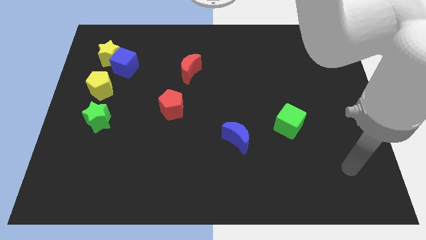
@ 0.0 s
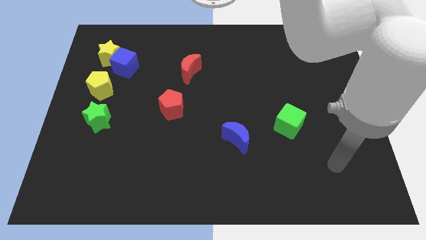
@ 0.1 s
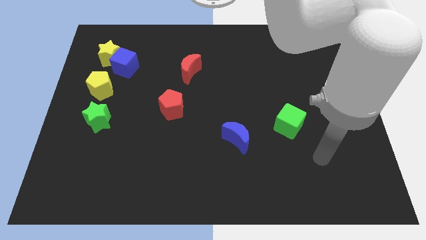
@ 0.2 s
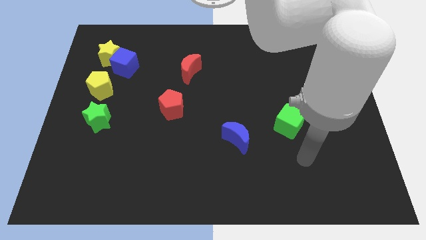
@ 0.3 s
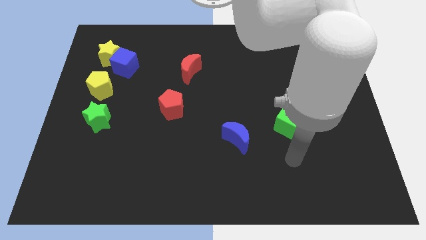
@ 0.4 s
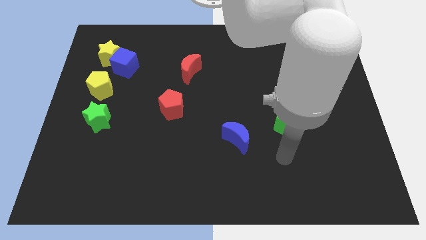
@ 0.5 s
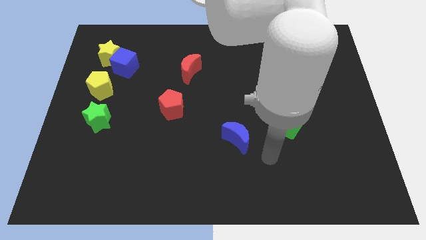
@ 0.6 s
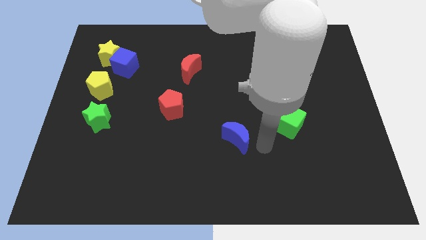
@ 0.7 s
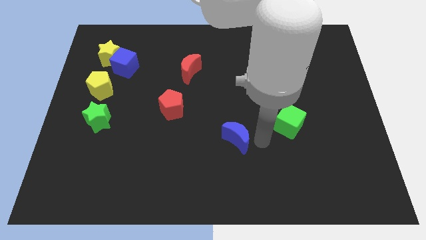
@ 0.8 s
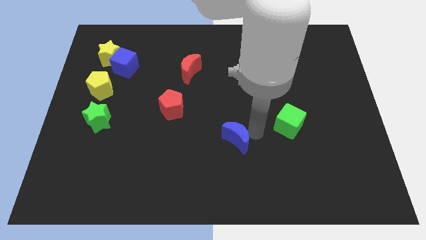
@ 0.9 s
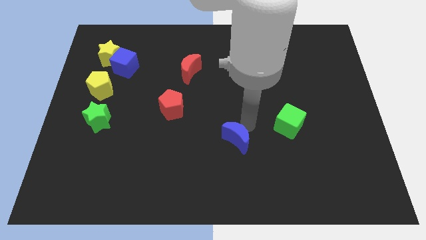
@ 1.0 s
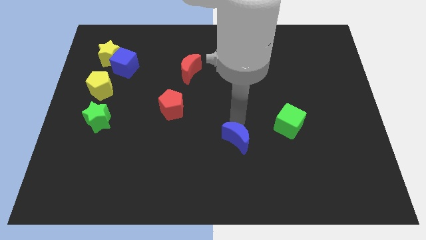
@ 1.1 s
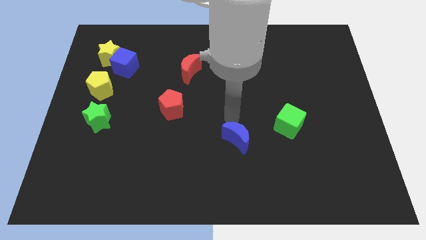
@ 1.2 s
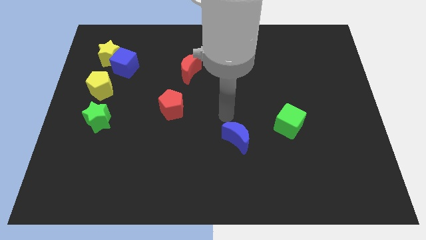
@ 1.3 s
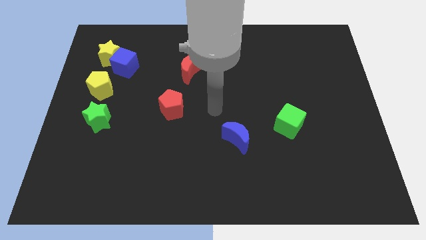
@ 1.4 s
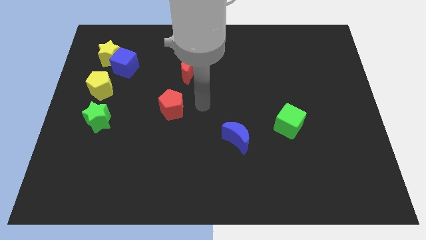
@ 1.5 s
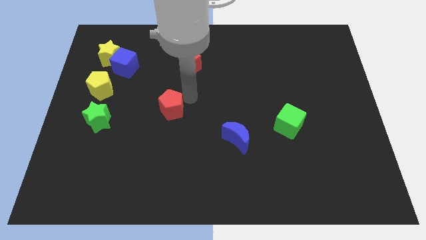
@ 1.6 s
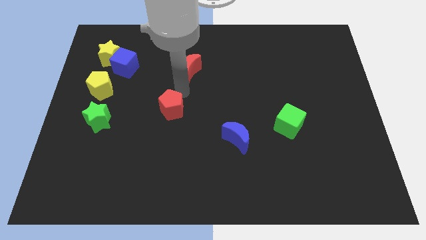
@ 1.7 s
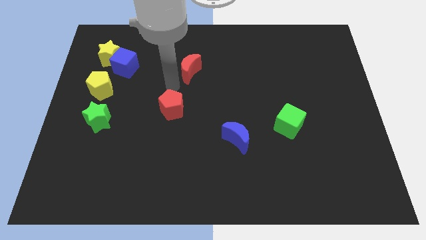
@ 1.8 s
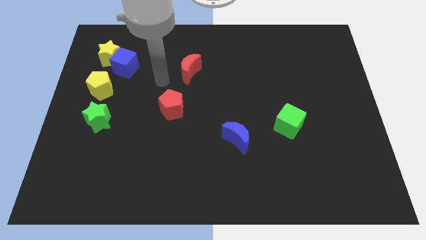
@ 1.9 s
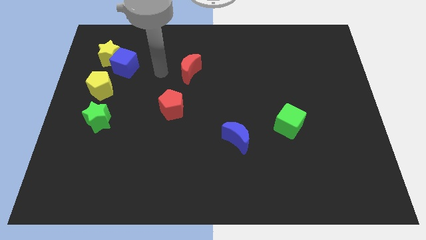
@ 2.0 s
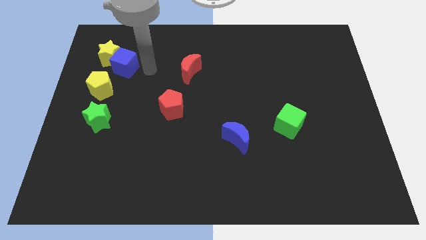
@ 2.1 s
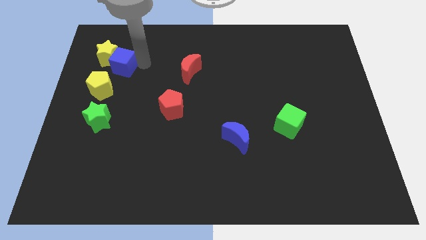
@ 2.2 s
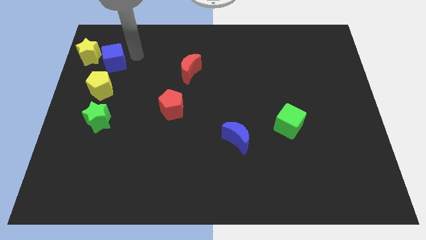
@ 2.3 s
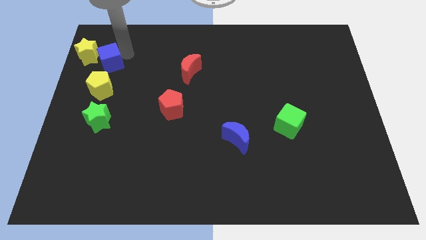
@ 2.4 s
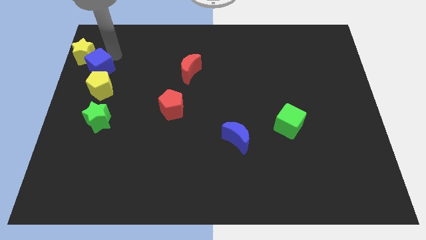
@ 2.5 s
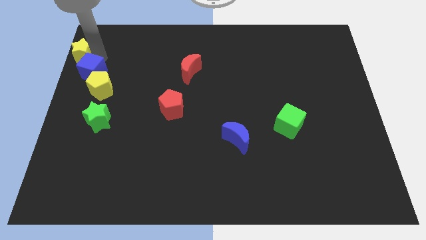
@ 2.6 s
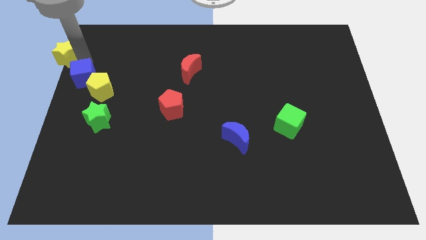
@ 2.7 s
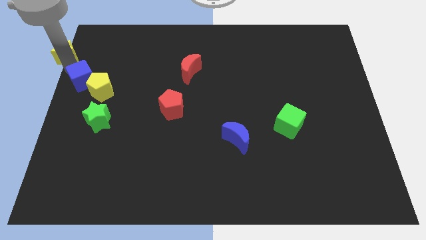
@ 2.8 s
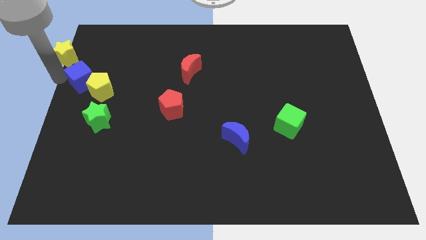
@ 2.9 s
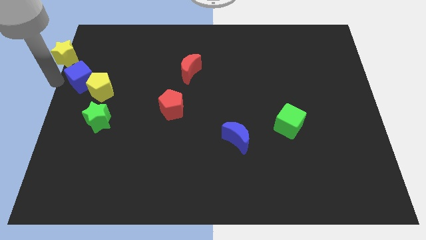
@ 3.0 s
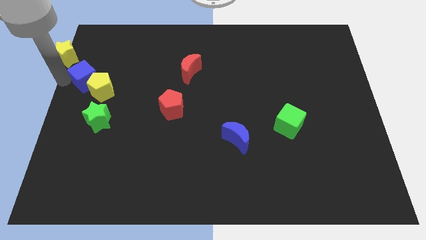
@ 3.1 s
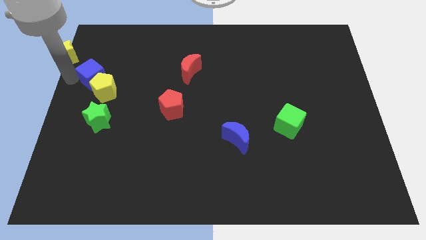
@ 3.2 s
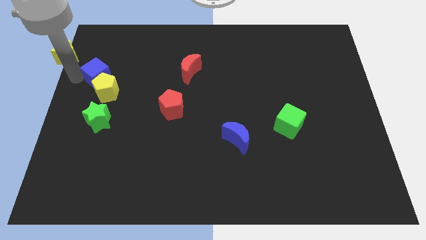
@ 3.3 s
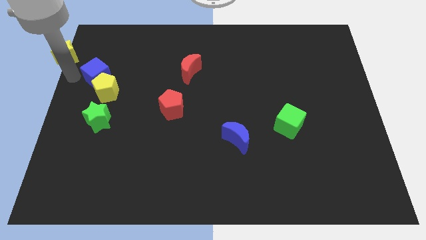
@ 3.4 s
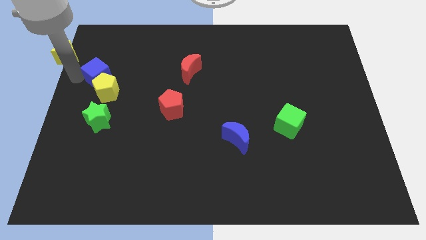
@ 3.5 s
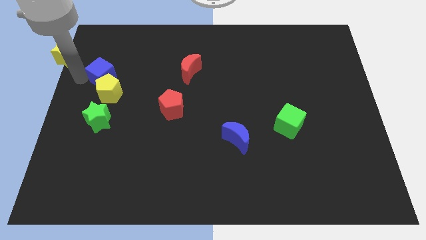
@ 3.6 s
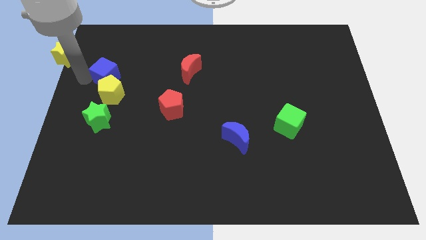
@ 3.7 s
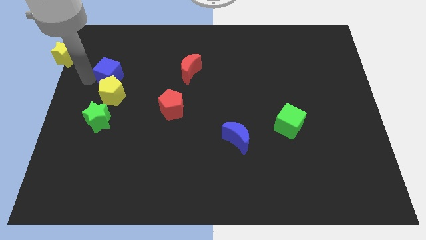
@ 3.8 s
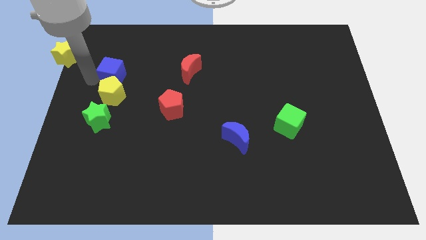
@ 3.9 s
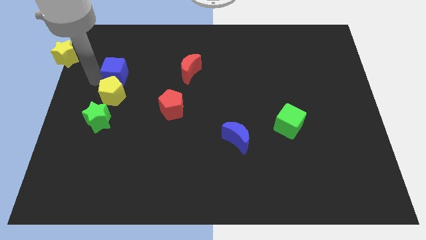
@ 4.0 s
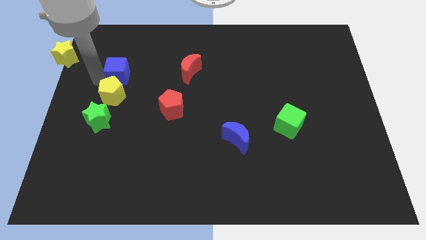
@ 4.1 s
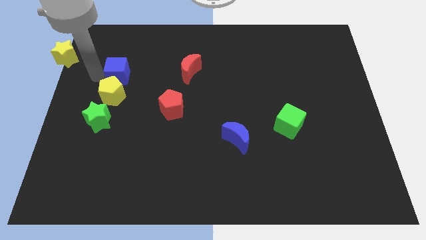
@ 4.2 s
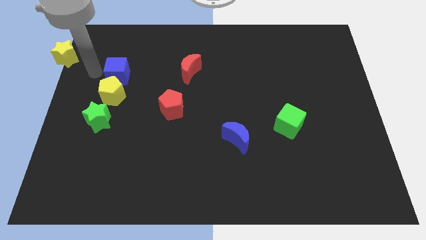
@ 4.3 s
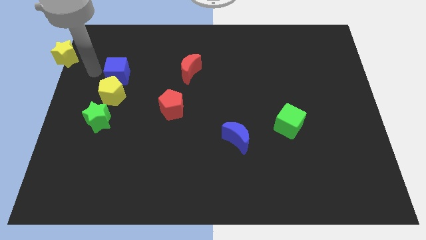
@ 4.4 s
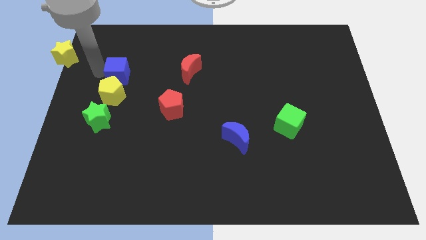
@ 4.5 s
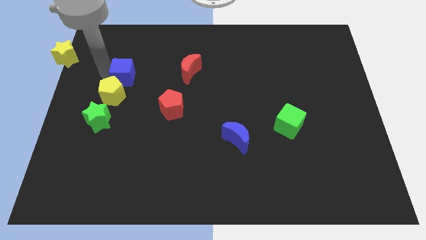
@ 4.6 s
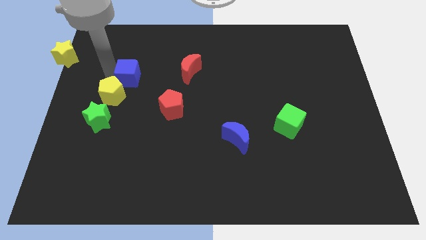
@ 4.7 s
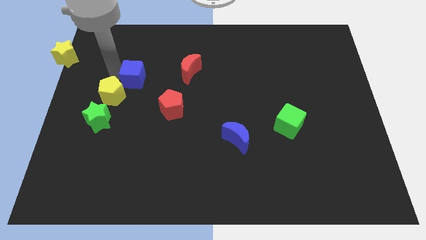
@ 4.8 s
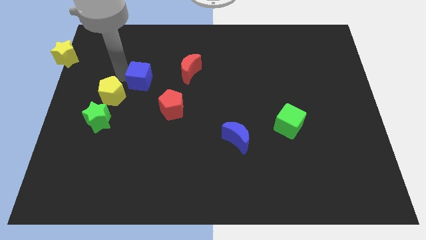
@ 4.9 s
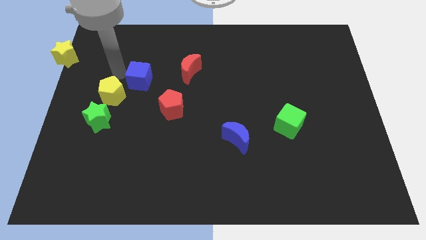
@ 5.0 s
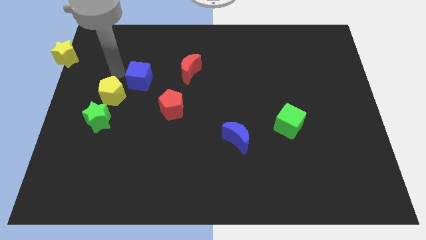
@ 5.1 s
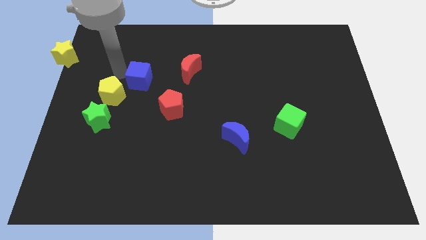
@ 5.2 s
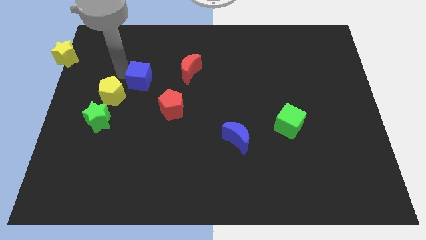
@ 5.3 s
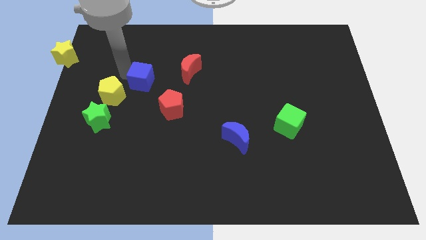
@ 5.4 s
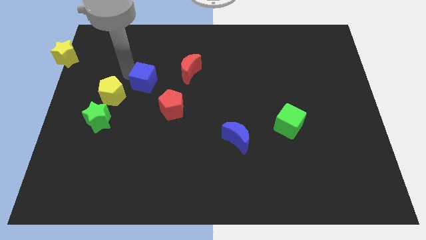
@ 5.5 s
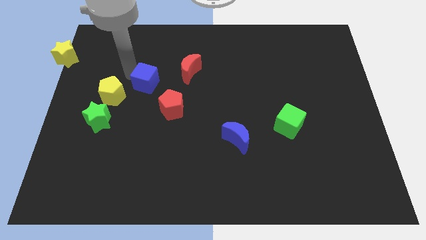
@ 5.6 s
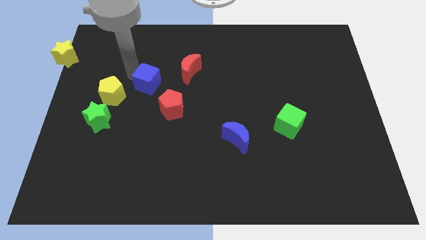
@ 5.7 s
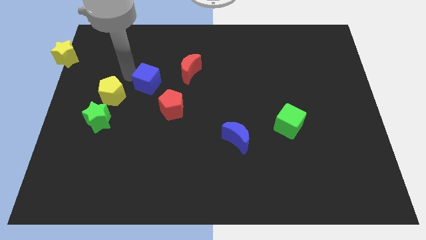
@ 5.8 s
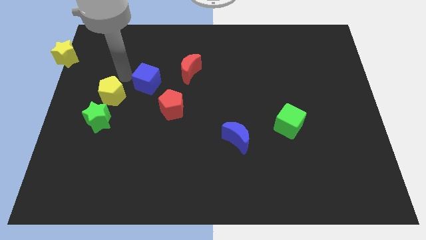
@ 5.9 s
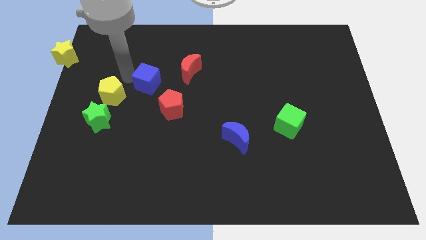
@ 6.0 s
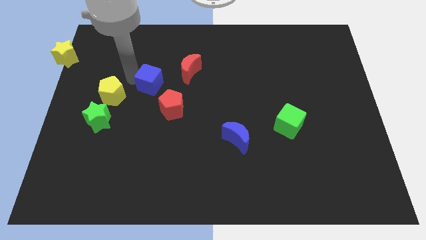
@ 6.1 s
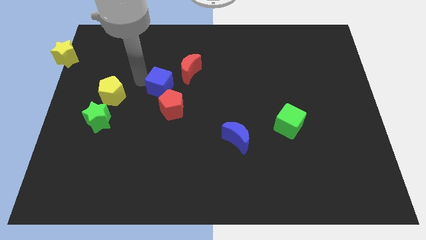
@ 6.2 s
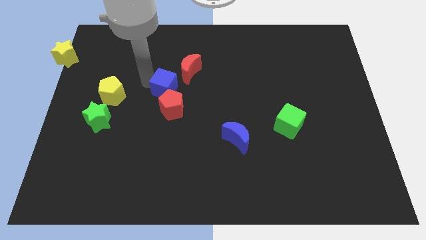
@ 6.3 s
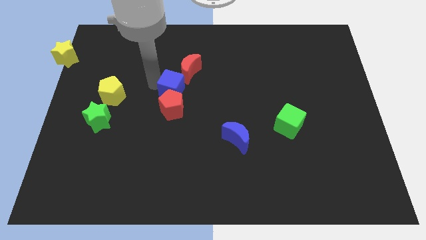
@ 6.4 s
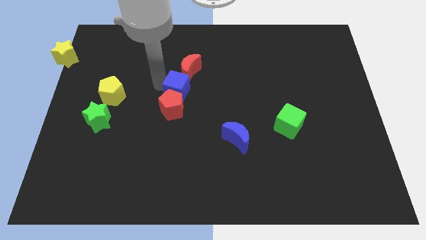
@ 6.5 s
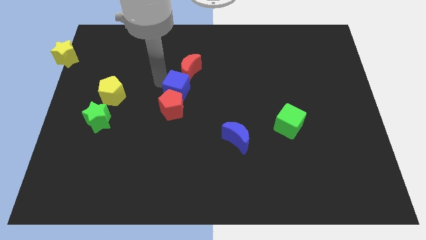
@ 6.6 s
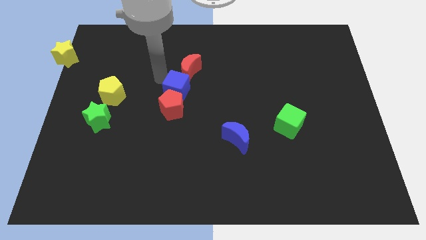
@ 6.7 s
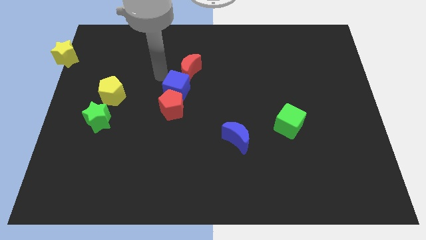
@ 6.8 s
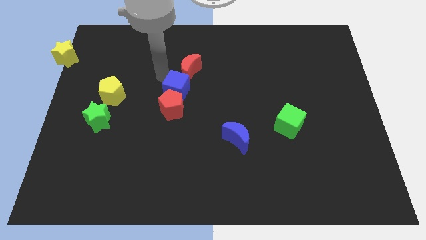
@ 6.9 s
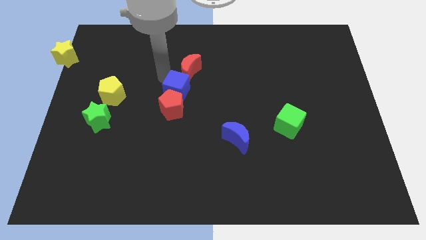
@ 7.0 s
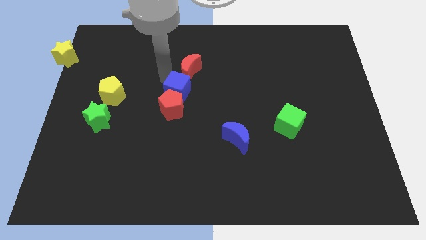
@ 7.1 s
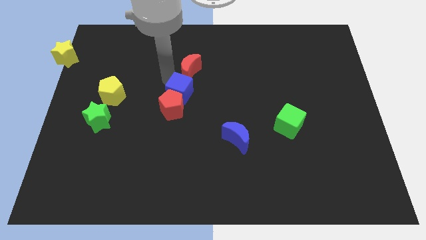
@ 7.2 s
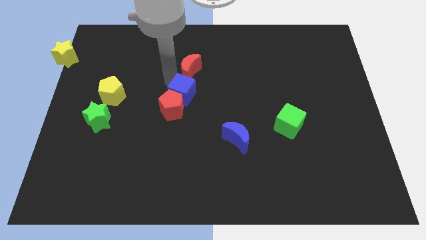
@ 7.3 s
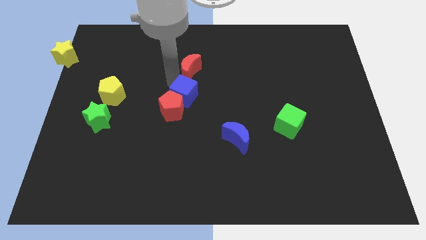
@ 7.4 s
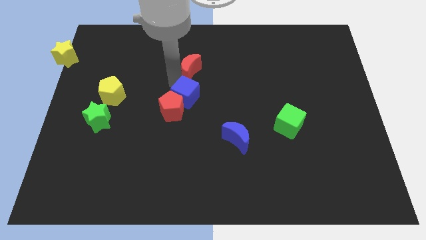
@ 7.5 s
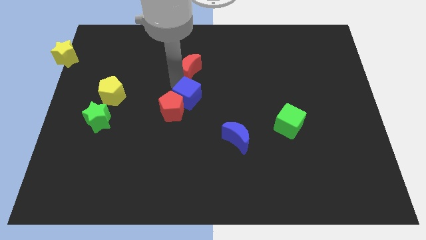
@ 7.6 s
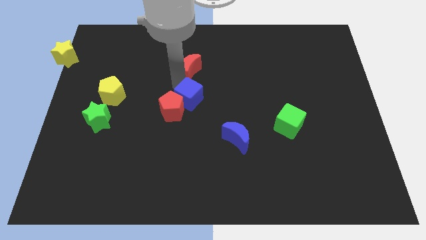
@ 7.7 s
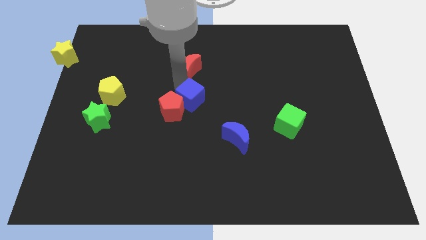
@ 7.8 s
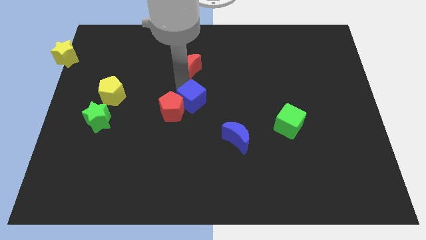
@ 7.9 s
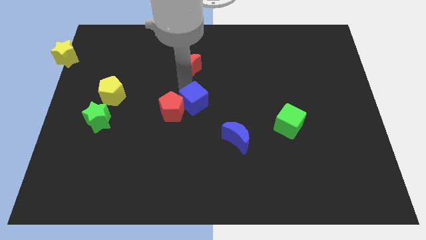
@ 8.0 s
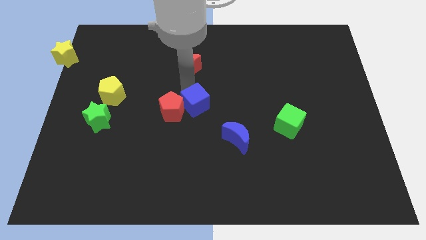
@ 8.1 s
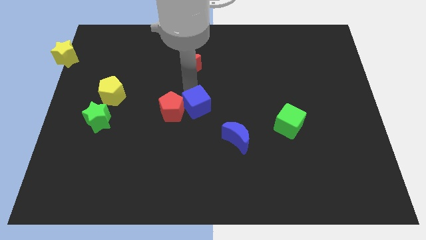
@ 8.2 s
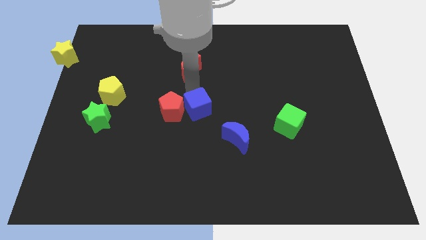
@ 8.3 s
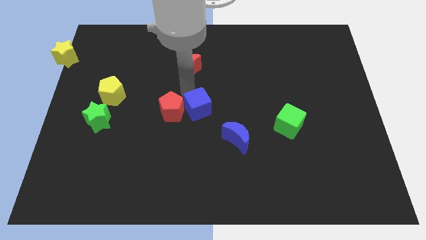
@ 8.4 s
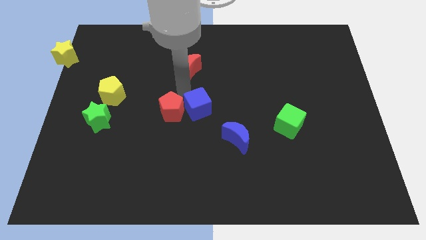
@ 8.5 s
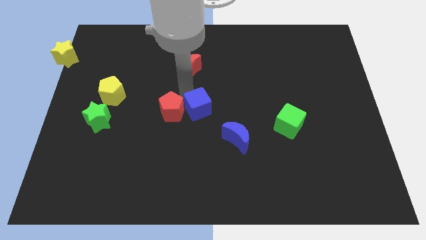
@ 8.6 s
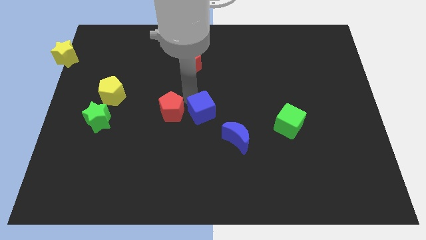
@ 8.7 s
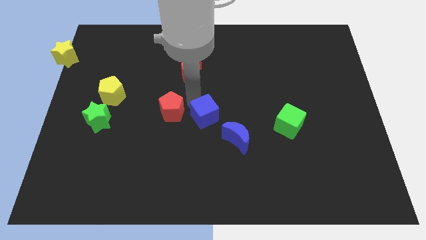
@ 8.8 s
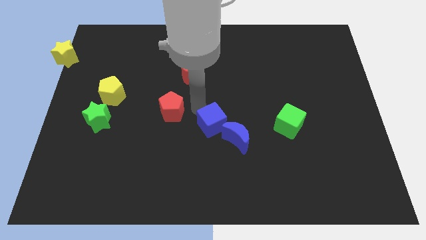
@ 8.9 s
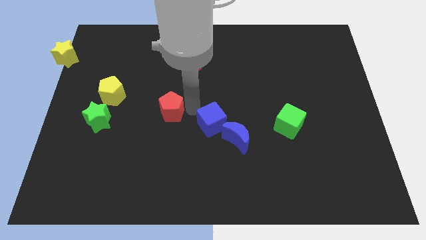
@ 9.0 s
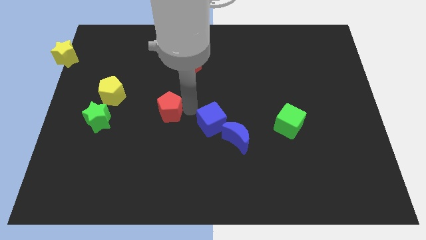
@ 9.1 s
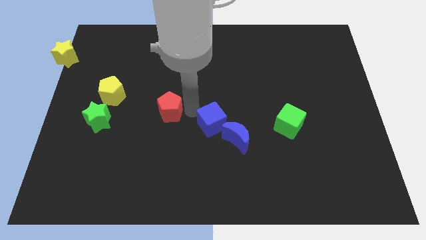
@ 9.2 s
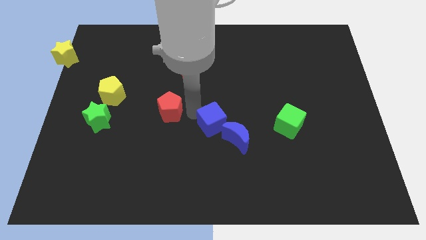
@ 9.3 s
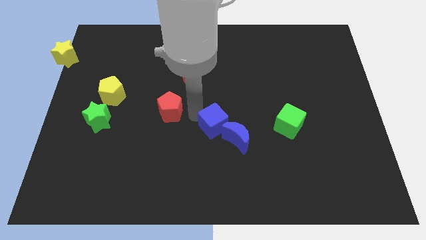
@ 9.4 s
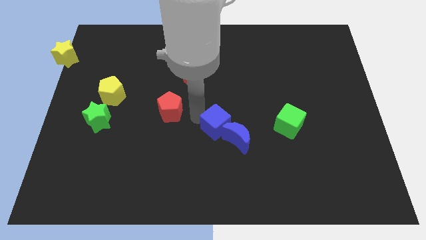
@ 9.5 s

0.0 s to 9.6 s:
move the blue cube to the blue moon
